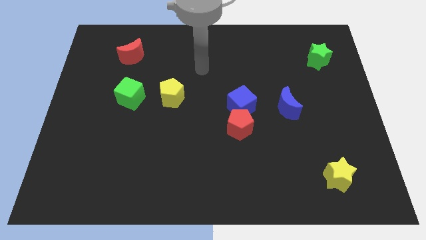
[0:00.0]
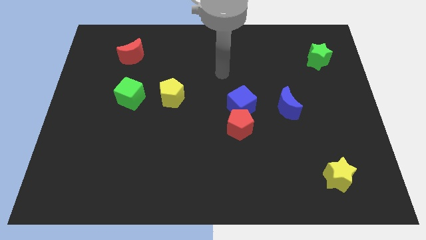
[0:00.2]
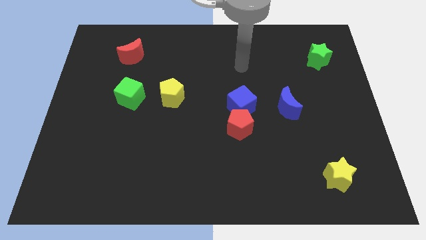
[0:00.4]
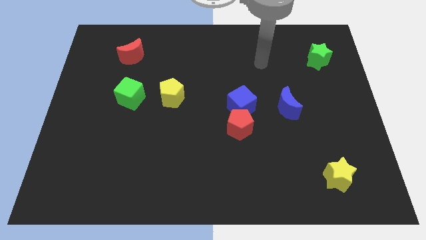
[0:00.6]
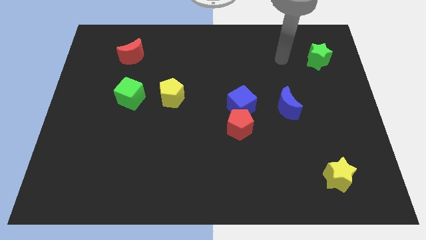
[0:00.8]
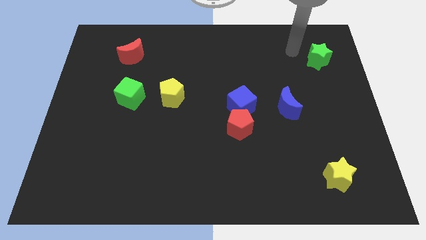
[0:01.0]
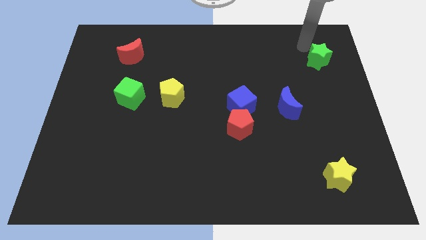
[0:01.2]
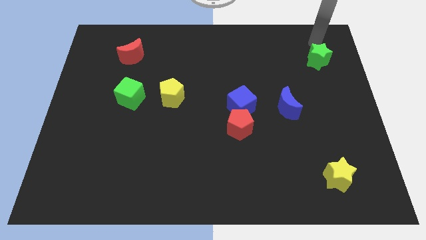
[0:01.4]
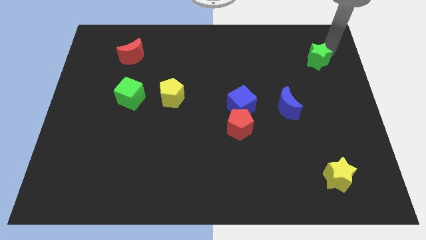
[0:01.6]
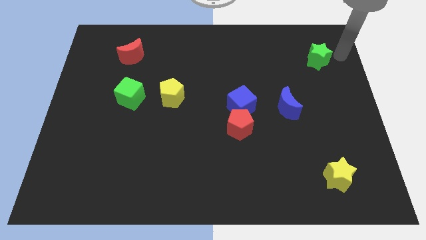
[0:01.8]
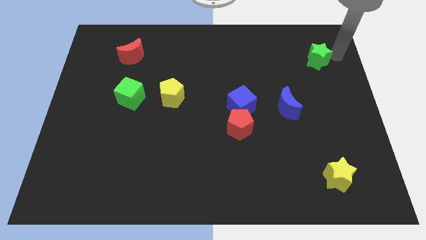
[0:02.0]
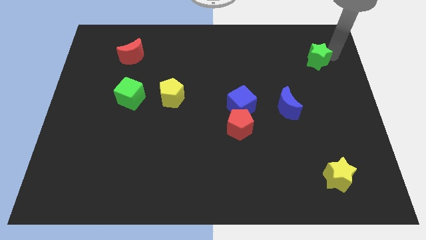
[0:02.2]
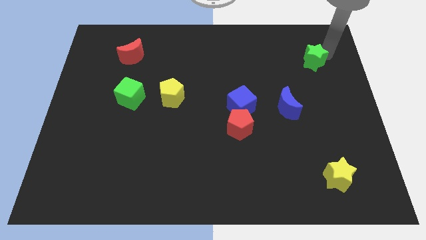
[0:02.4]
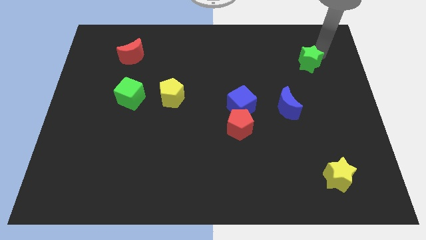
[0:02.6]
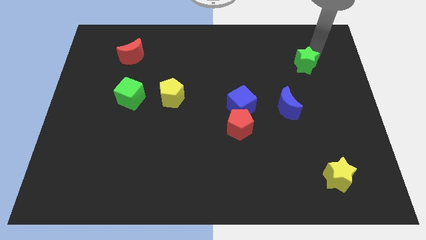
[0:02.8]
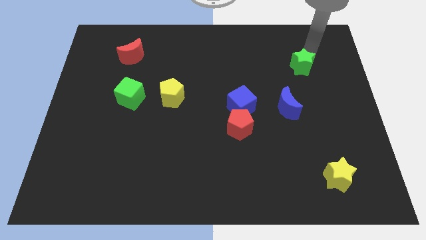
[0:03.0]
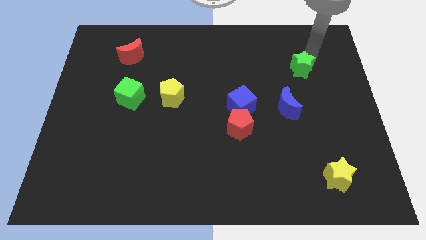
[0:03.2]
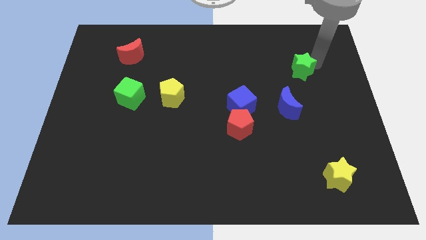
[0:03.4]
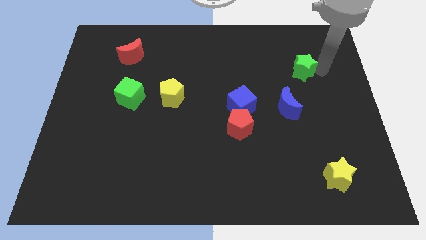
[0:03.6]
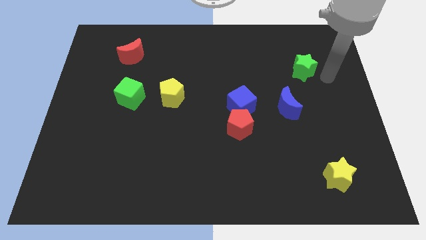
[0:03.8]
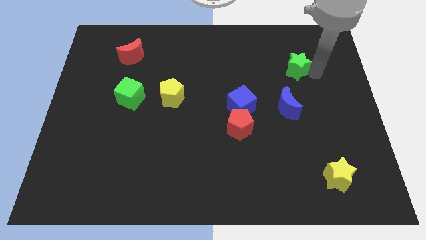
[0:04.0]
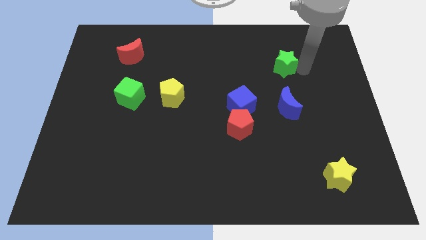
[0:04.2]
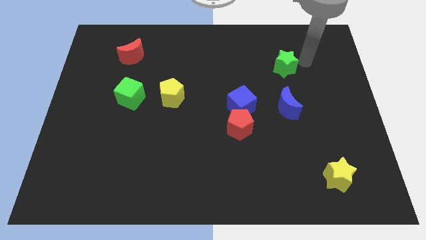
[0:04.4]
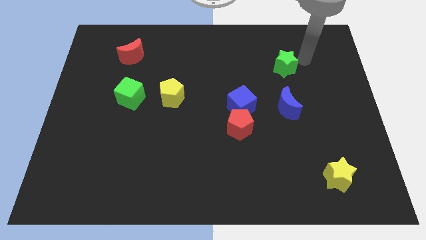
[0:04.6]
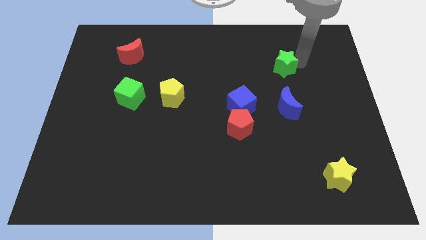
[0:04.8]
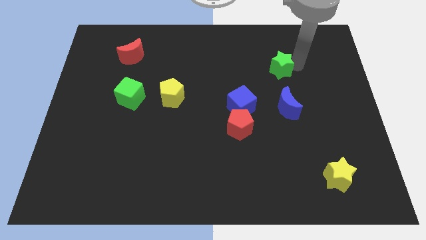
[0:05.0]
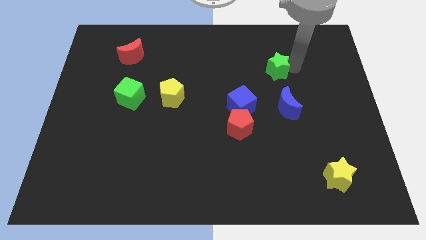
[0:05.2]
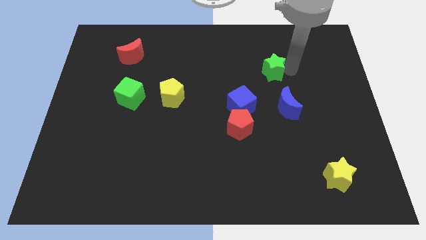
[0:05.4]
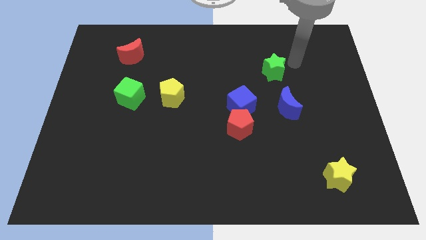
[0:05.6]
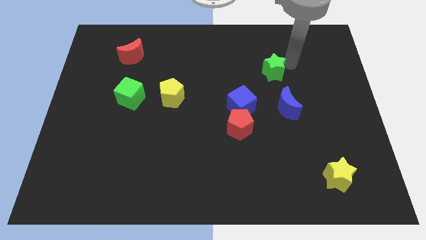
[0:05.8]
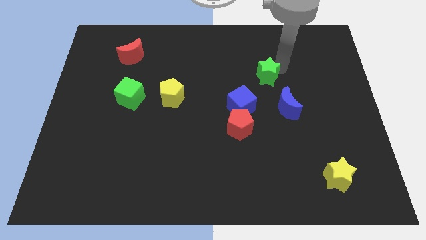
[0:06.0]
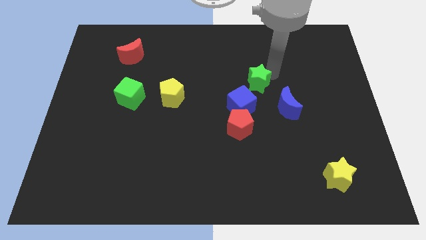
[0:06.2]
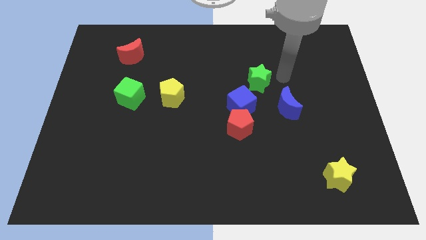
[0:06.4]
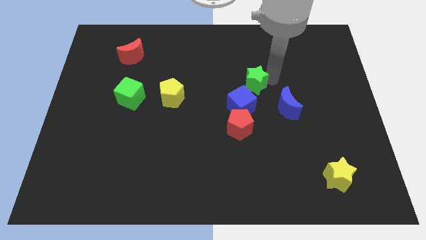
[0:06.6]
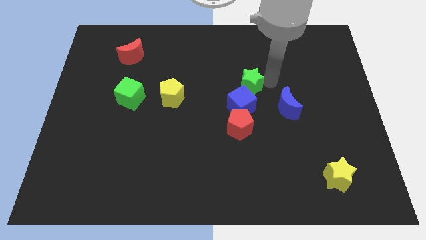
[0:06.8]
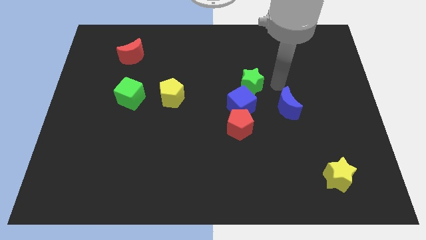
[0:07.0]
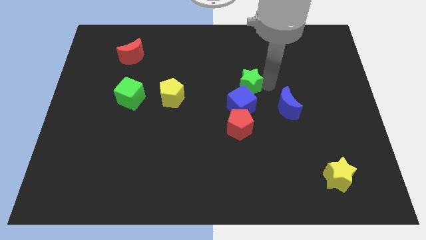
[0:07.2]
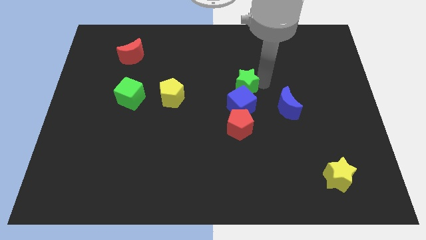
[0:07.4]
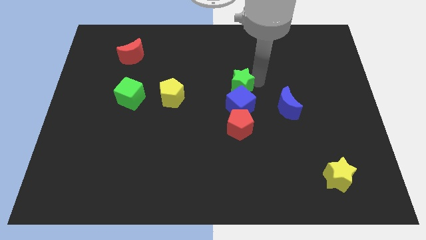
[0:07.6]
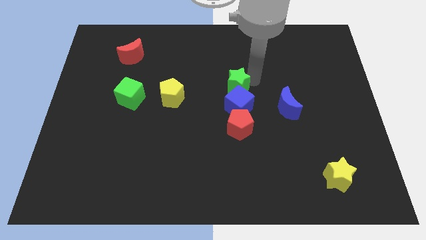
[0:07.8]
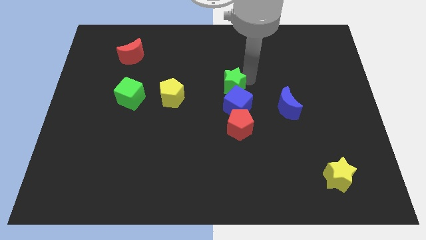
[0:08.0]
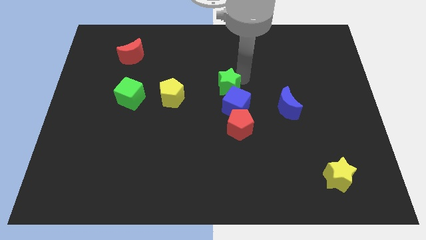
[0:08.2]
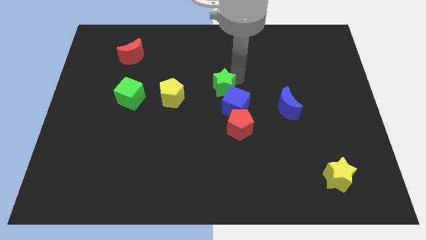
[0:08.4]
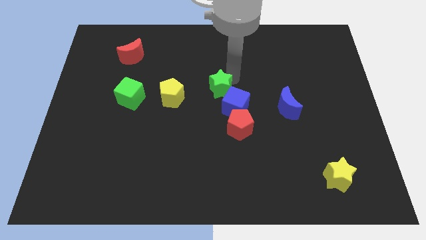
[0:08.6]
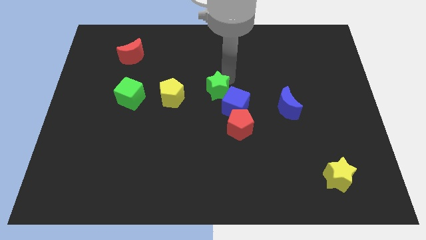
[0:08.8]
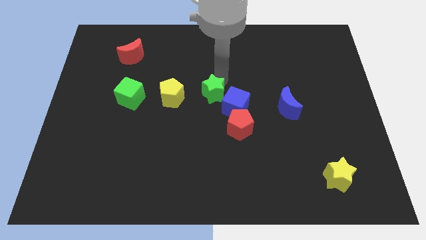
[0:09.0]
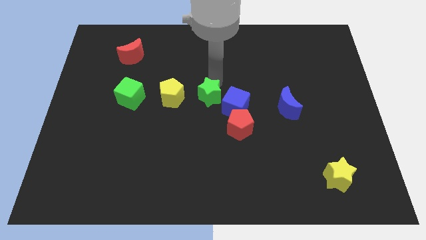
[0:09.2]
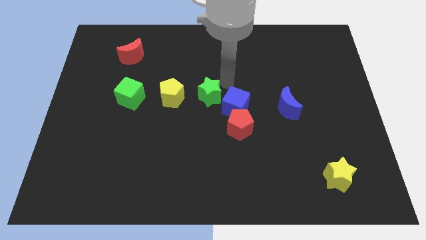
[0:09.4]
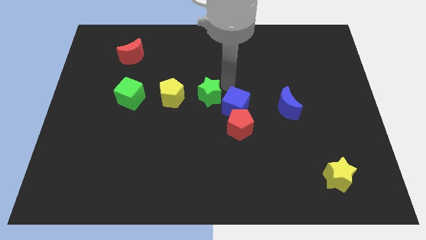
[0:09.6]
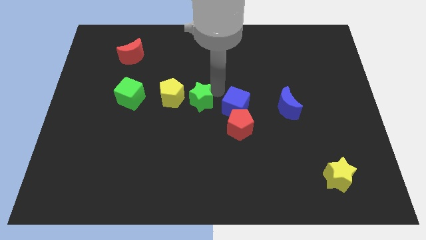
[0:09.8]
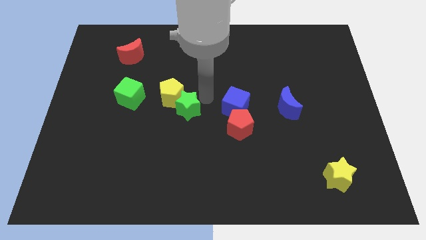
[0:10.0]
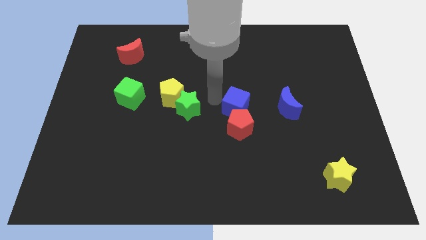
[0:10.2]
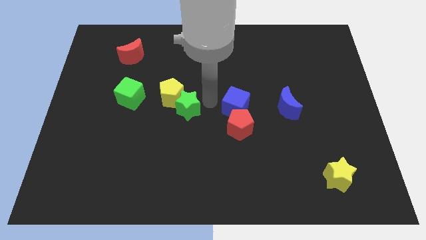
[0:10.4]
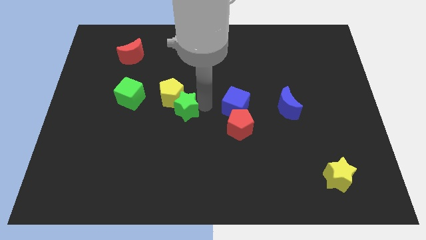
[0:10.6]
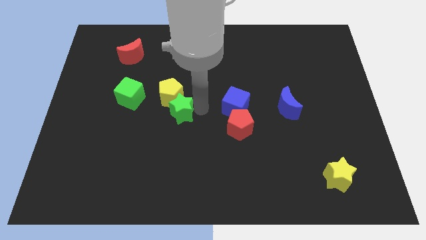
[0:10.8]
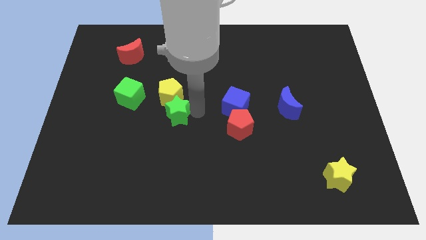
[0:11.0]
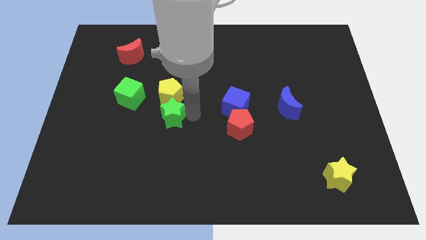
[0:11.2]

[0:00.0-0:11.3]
put the green star to the bottom left side of the yellow pentagon
